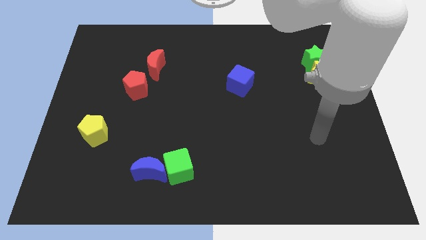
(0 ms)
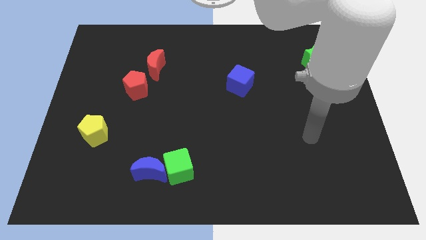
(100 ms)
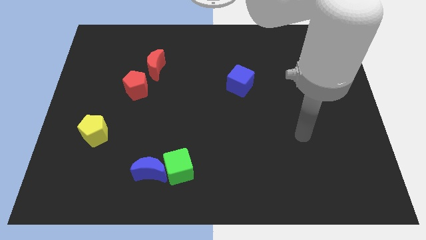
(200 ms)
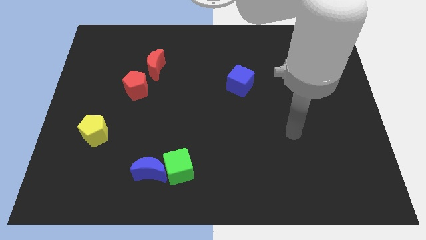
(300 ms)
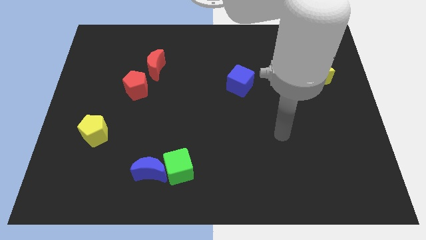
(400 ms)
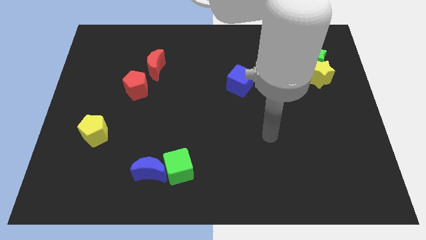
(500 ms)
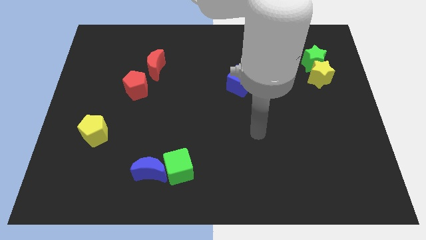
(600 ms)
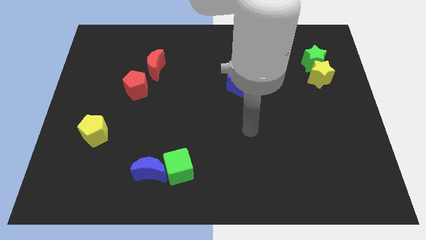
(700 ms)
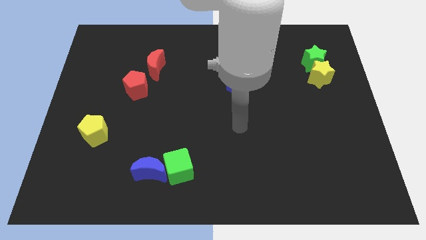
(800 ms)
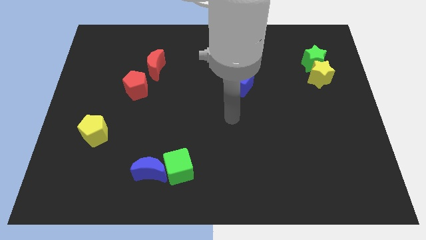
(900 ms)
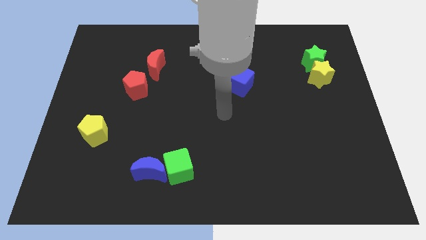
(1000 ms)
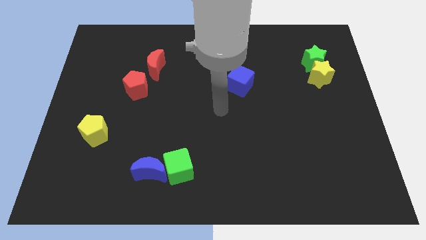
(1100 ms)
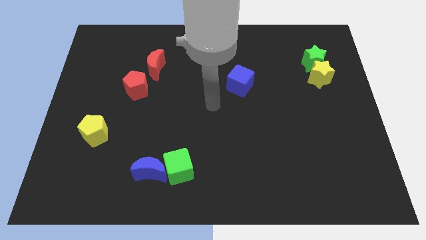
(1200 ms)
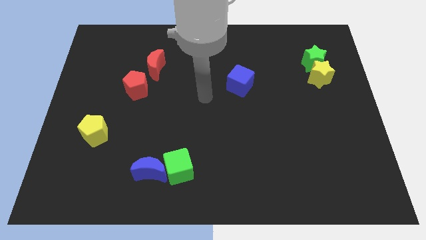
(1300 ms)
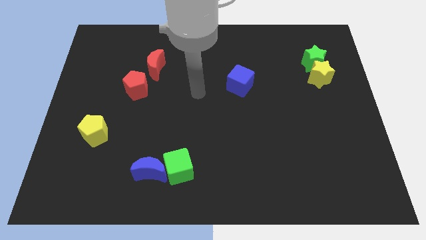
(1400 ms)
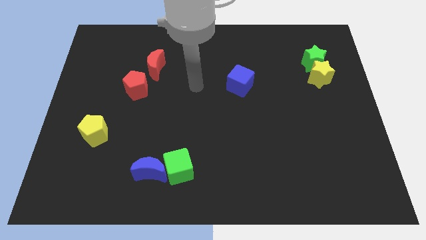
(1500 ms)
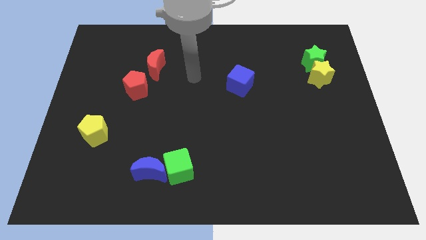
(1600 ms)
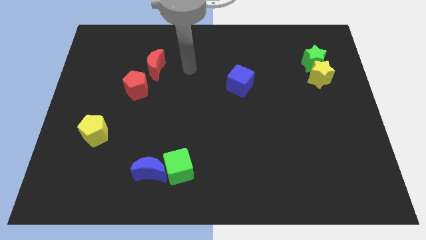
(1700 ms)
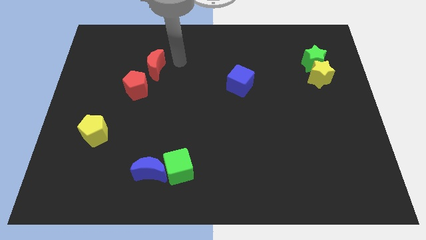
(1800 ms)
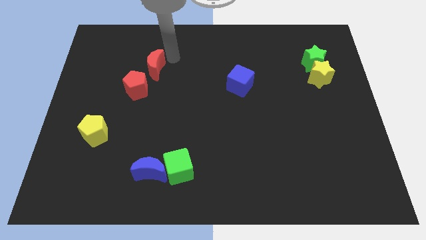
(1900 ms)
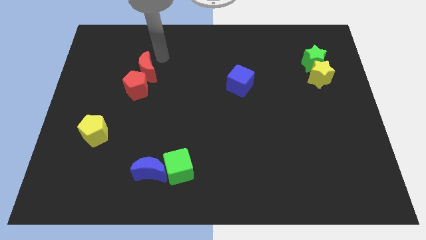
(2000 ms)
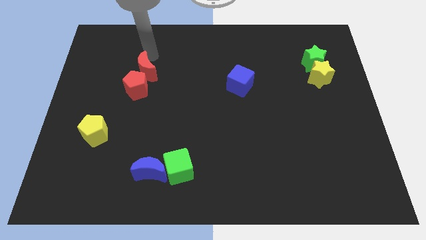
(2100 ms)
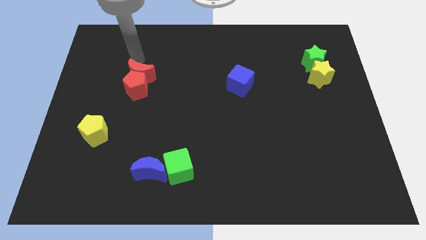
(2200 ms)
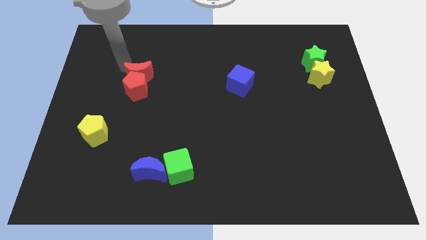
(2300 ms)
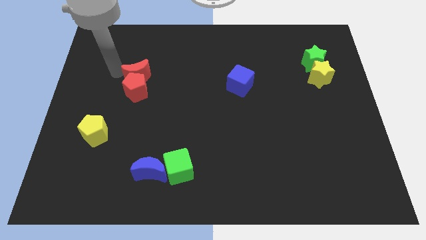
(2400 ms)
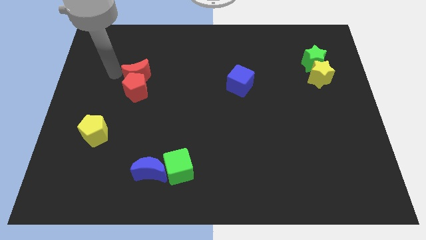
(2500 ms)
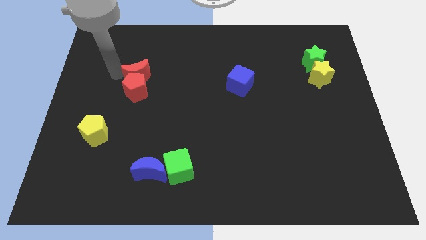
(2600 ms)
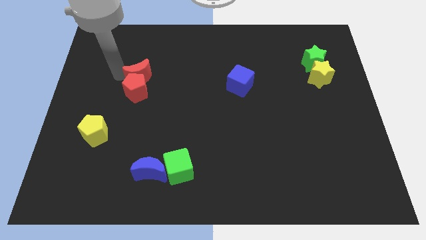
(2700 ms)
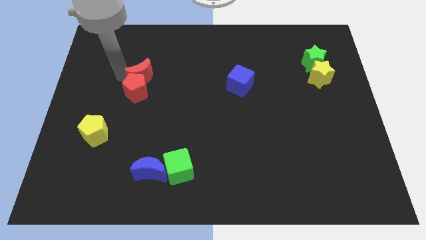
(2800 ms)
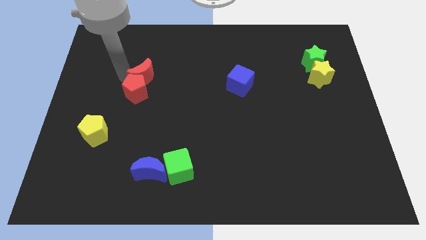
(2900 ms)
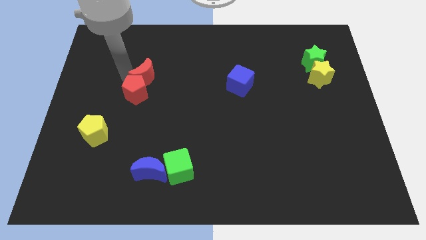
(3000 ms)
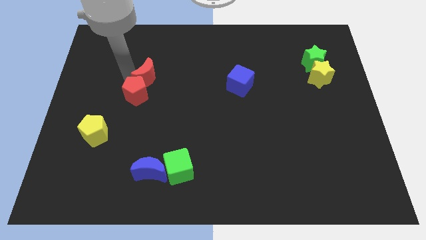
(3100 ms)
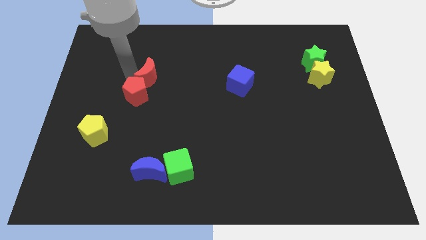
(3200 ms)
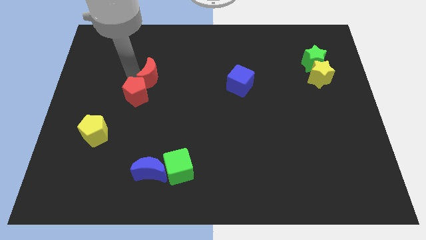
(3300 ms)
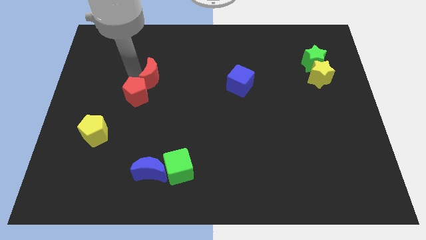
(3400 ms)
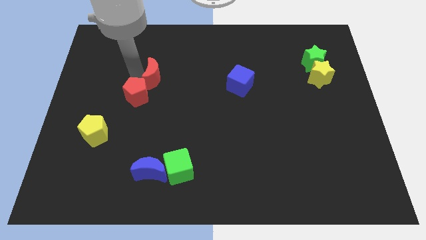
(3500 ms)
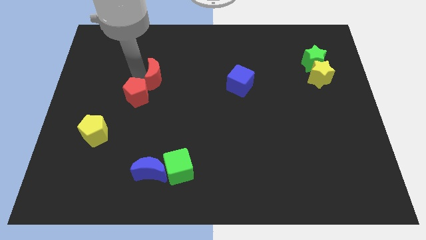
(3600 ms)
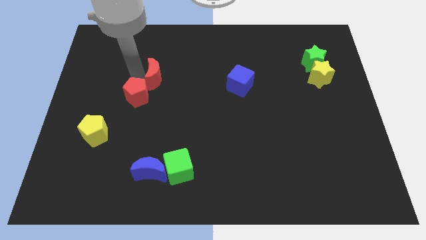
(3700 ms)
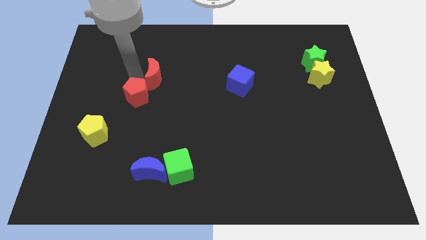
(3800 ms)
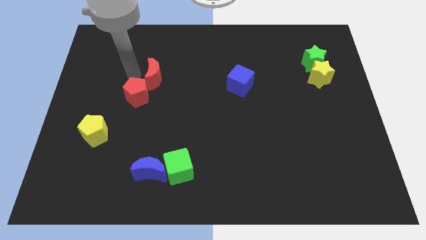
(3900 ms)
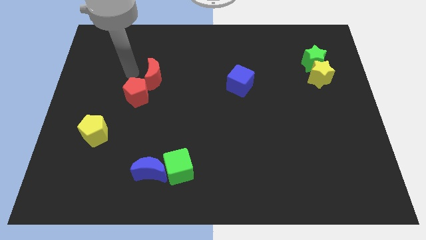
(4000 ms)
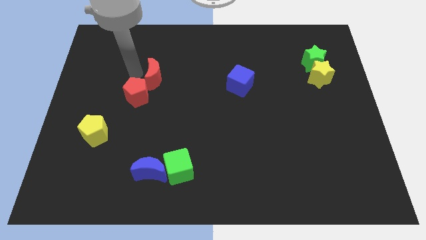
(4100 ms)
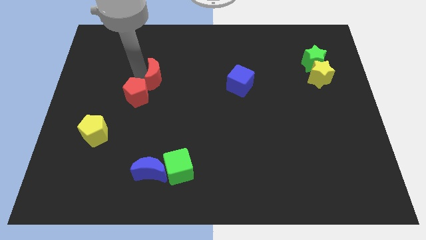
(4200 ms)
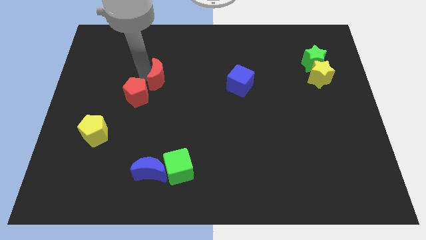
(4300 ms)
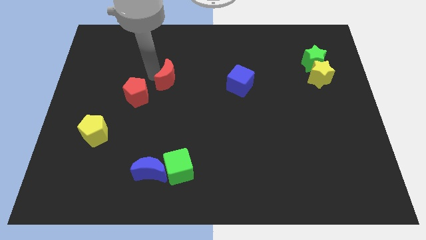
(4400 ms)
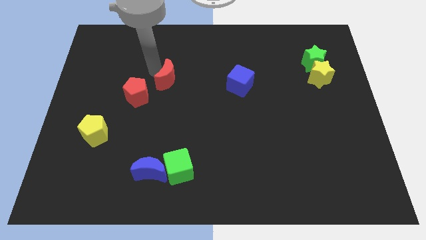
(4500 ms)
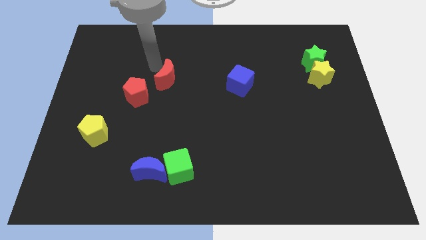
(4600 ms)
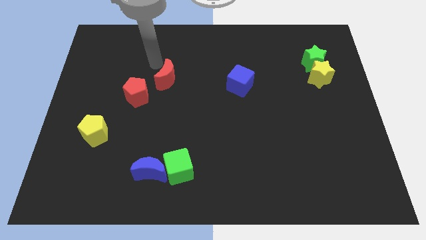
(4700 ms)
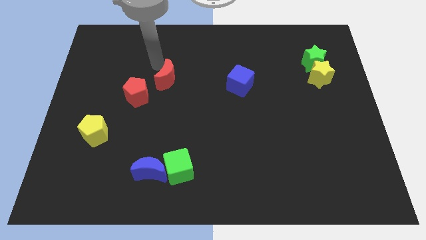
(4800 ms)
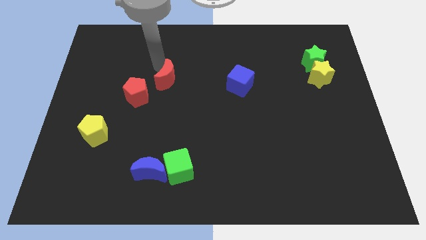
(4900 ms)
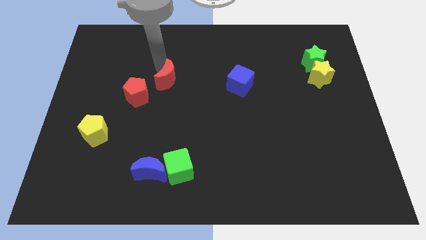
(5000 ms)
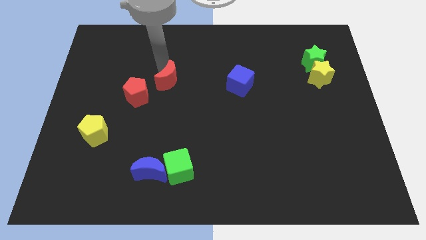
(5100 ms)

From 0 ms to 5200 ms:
push the red moon to the right of the red pentagon

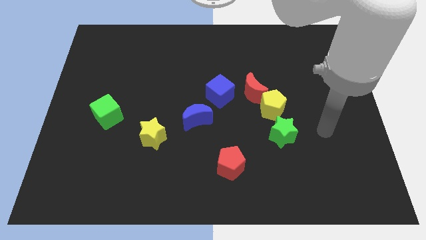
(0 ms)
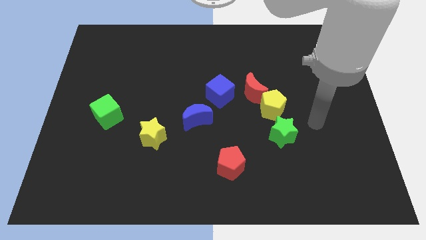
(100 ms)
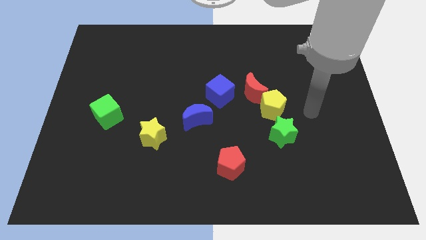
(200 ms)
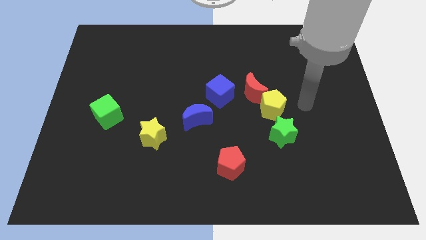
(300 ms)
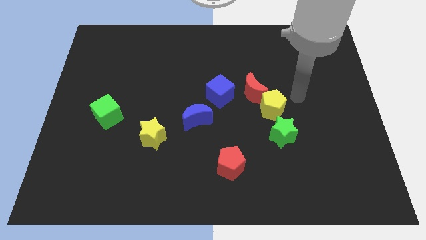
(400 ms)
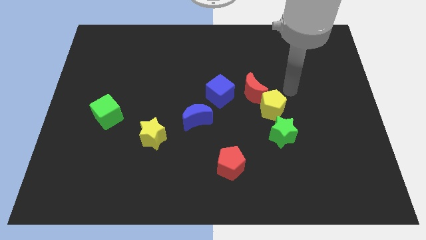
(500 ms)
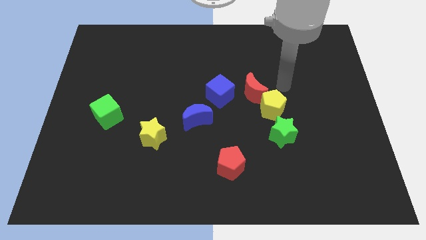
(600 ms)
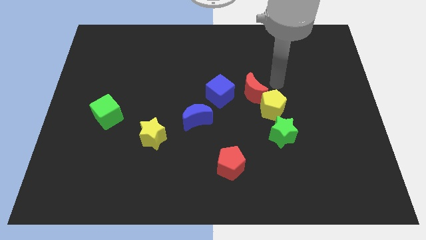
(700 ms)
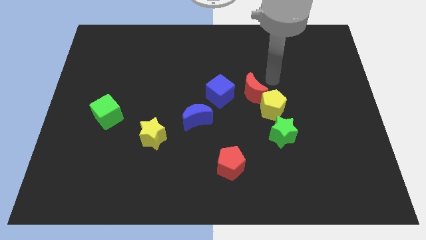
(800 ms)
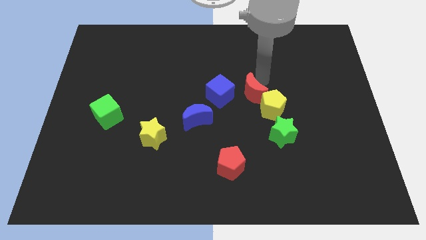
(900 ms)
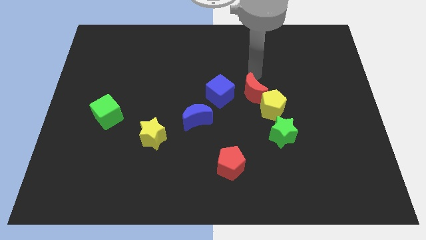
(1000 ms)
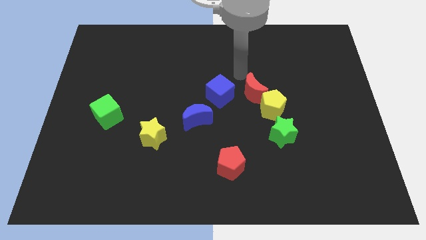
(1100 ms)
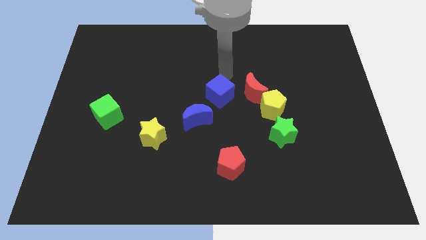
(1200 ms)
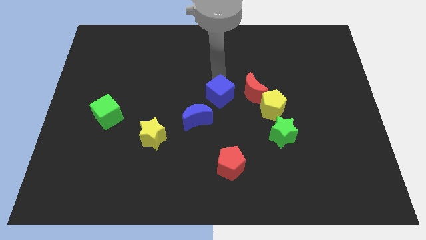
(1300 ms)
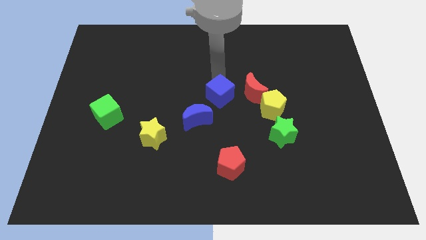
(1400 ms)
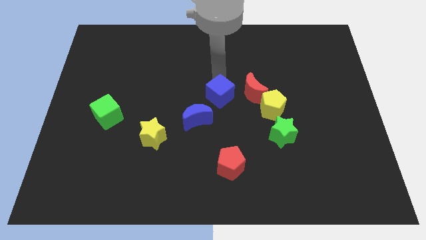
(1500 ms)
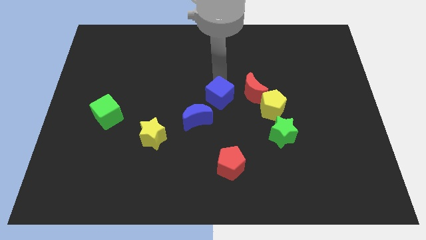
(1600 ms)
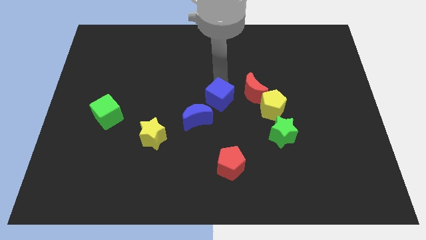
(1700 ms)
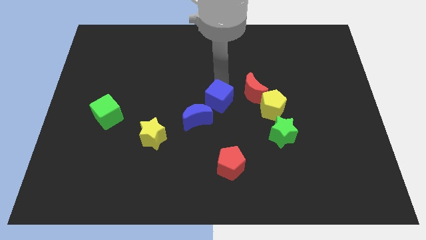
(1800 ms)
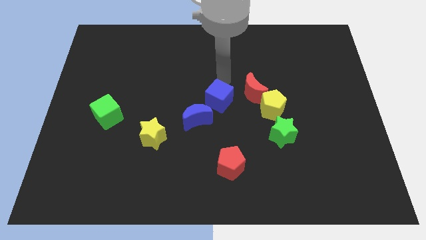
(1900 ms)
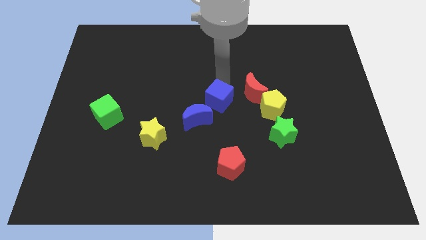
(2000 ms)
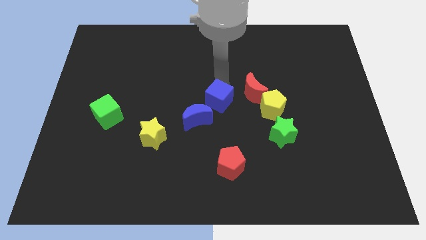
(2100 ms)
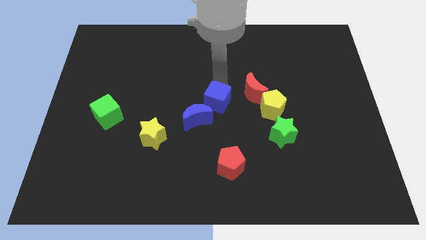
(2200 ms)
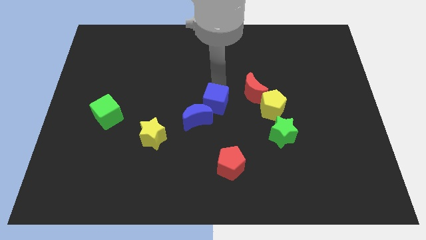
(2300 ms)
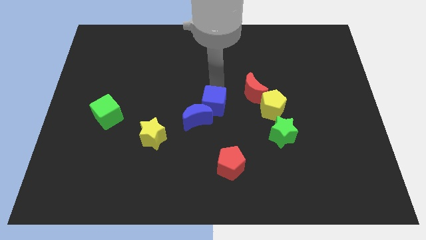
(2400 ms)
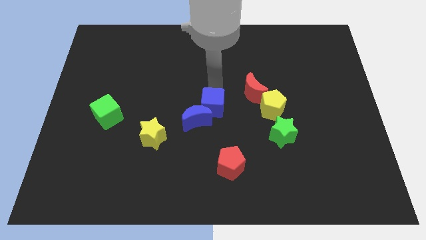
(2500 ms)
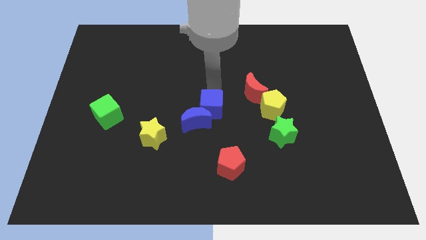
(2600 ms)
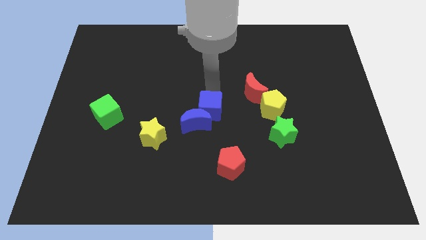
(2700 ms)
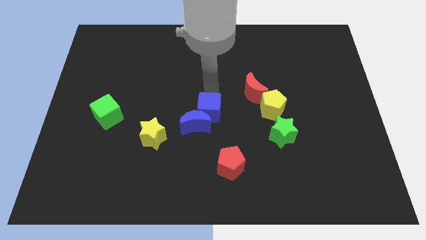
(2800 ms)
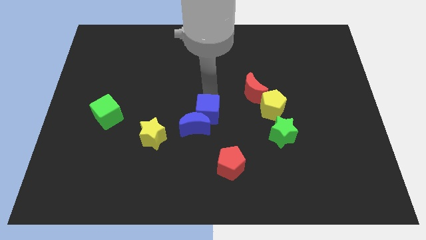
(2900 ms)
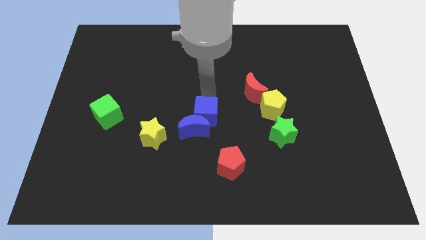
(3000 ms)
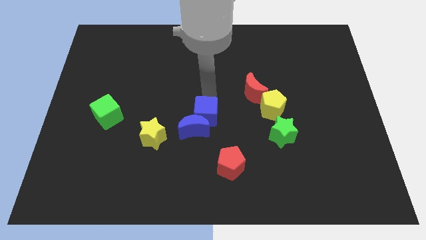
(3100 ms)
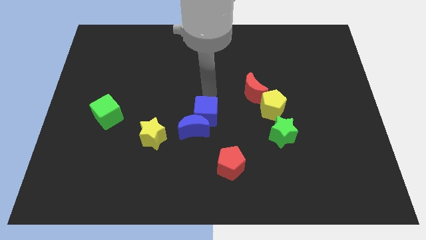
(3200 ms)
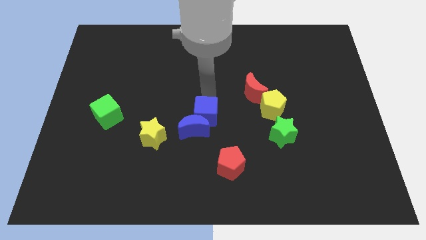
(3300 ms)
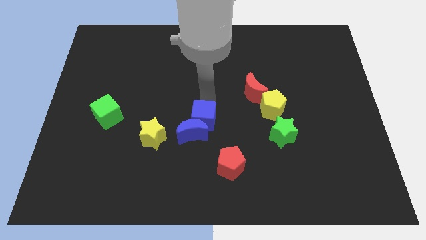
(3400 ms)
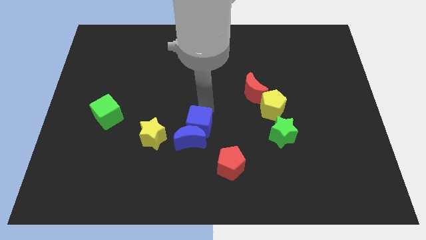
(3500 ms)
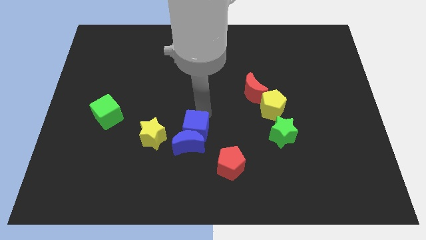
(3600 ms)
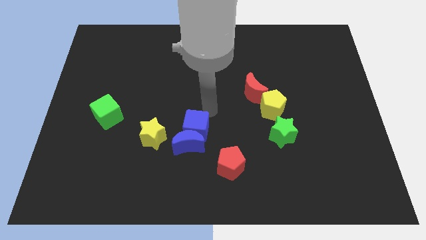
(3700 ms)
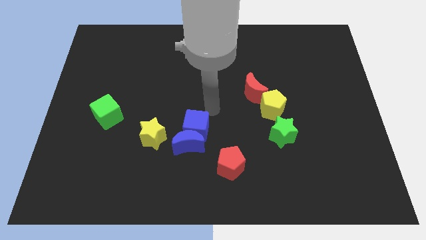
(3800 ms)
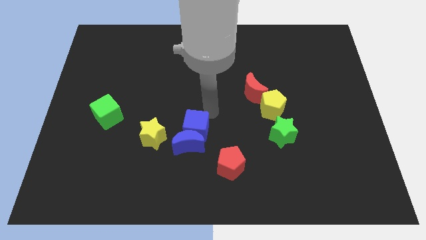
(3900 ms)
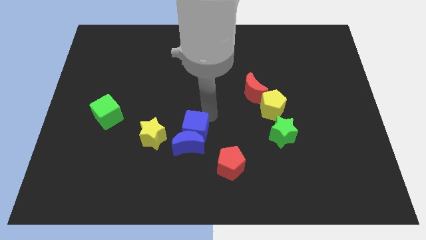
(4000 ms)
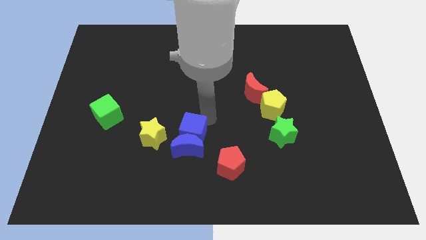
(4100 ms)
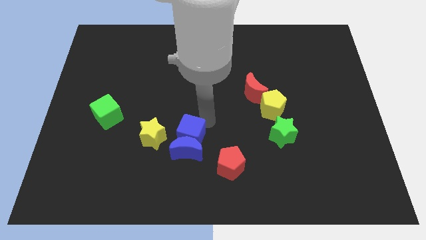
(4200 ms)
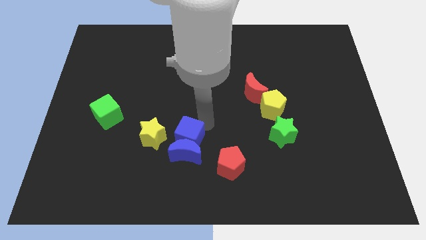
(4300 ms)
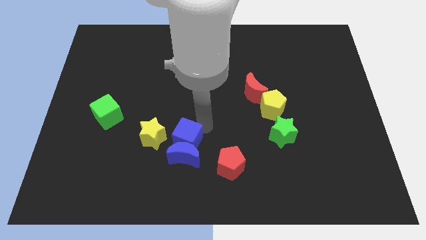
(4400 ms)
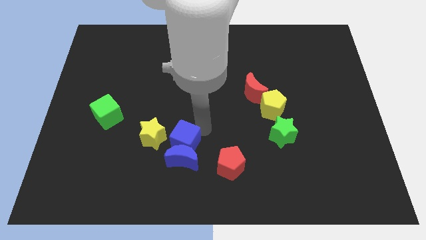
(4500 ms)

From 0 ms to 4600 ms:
push the blue cube to the bottom right of the yellow star
